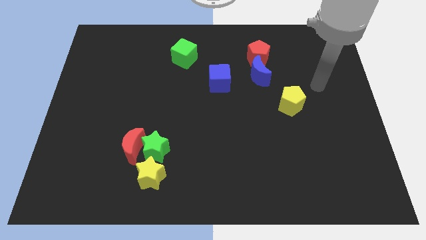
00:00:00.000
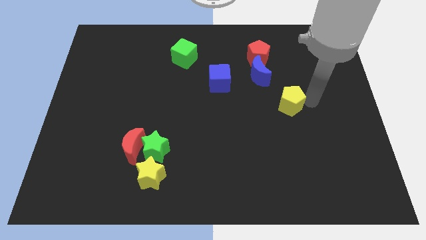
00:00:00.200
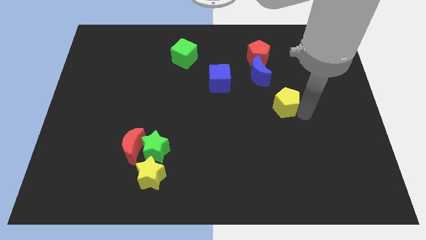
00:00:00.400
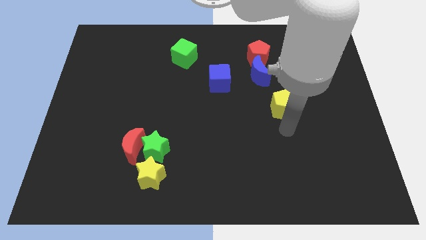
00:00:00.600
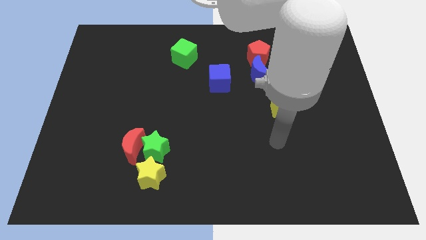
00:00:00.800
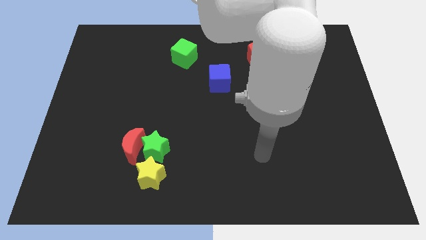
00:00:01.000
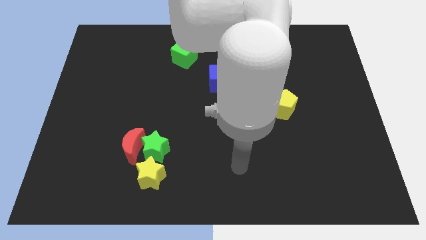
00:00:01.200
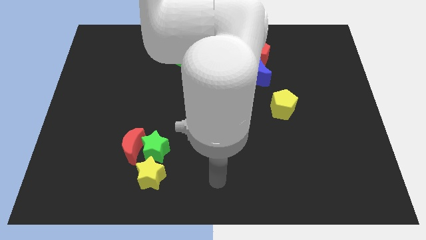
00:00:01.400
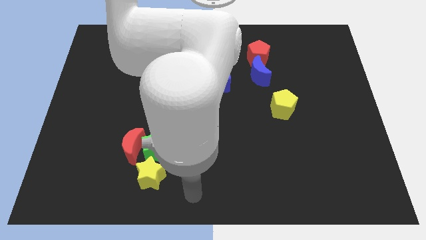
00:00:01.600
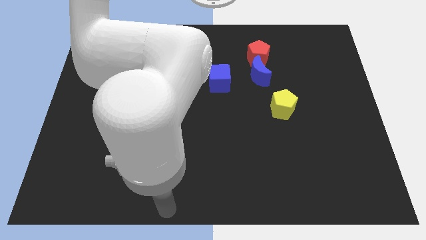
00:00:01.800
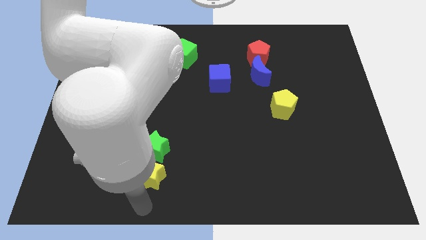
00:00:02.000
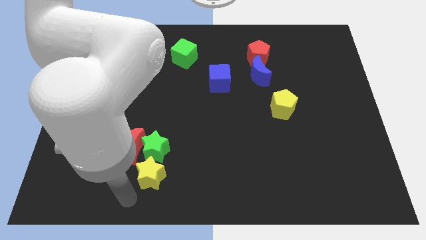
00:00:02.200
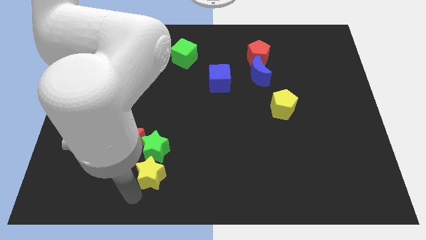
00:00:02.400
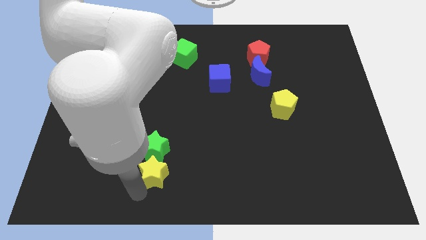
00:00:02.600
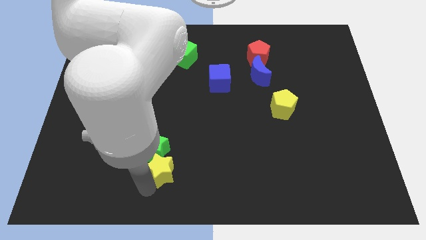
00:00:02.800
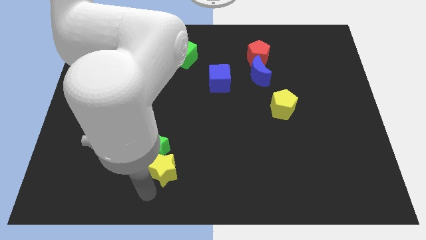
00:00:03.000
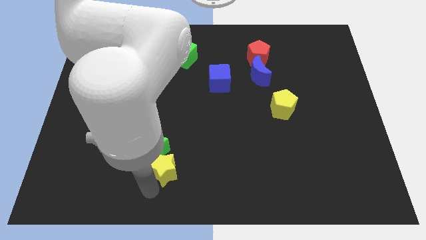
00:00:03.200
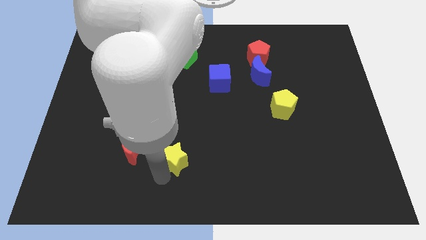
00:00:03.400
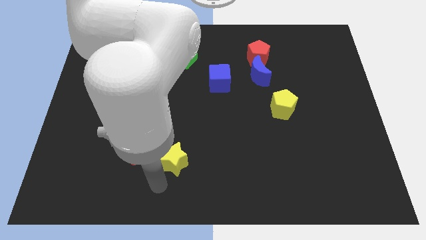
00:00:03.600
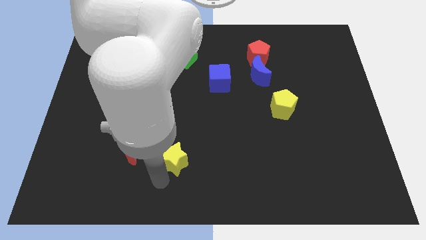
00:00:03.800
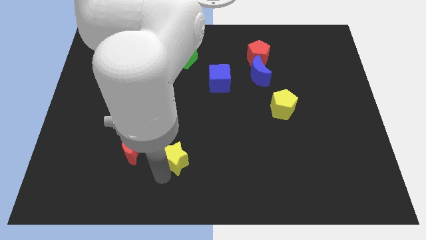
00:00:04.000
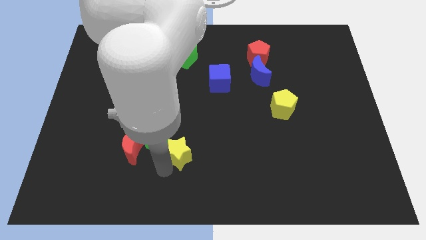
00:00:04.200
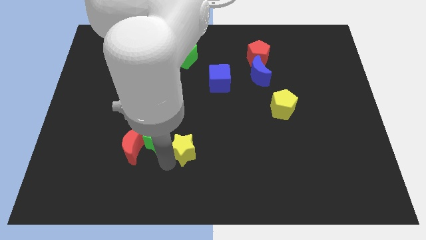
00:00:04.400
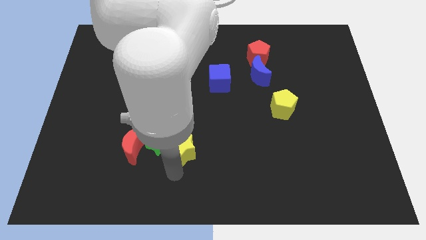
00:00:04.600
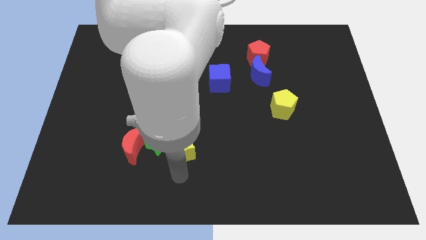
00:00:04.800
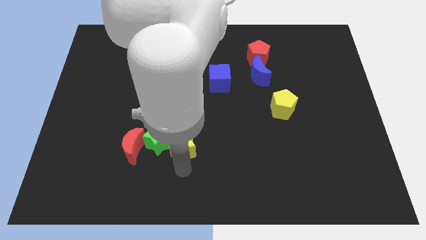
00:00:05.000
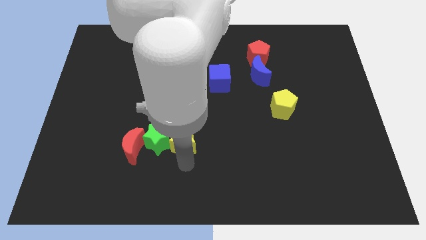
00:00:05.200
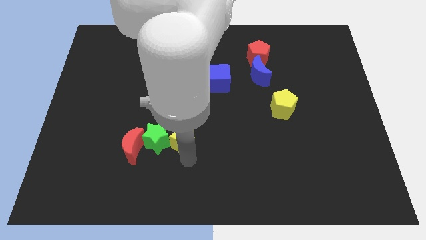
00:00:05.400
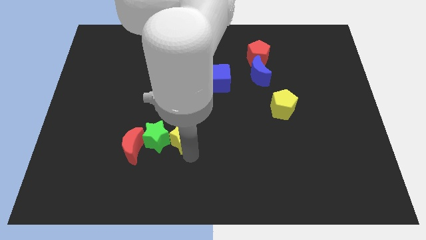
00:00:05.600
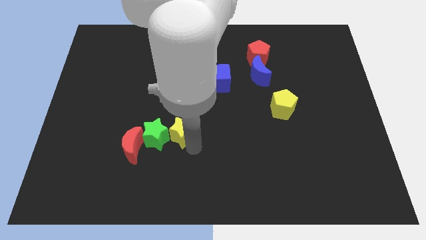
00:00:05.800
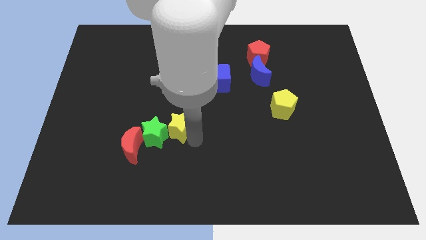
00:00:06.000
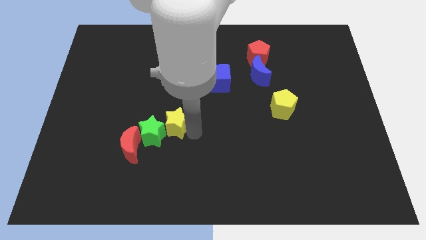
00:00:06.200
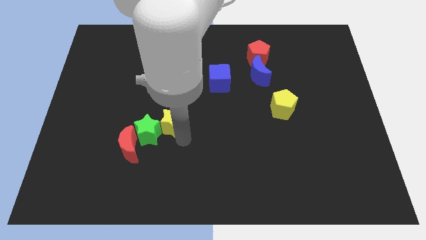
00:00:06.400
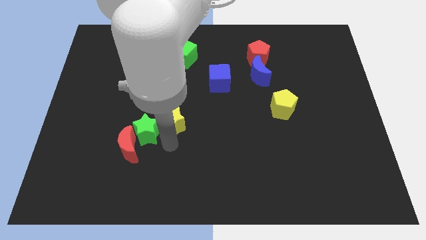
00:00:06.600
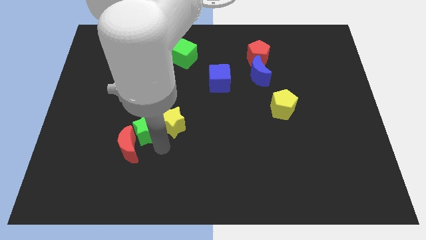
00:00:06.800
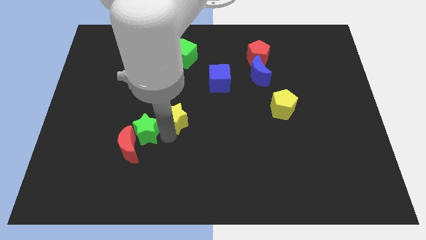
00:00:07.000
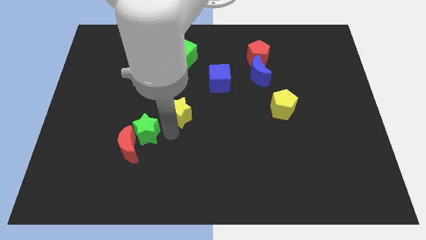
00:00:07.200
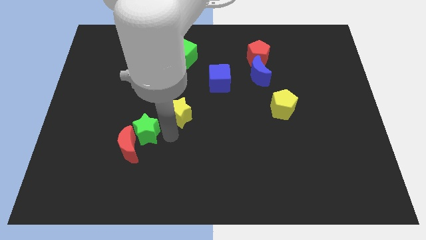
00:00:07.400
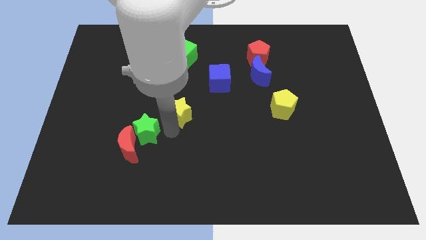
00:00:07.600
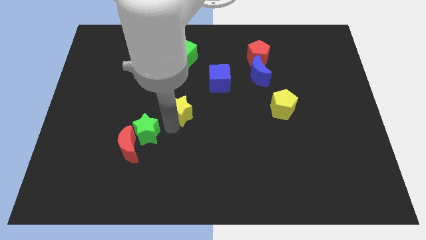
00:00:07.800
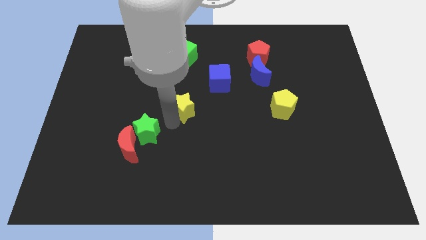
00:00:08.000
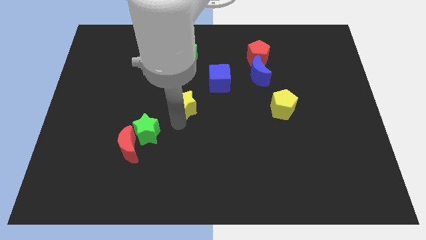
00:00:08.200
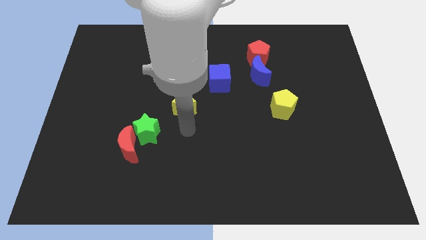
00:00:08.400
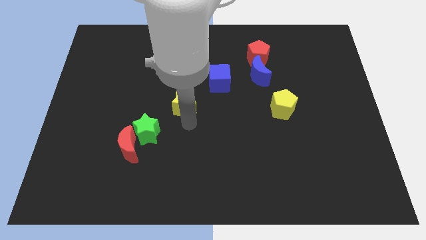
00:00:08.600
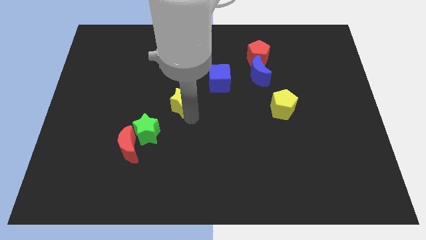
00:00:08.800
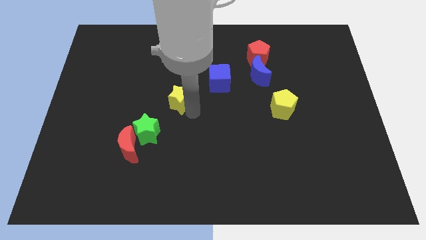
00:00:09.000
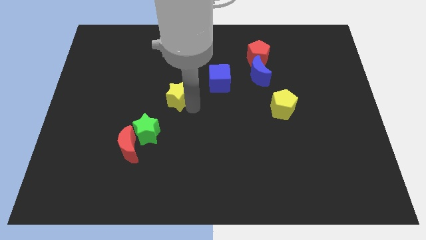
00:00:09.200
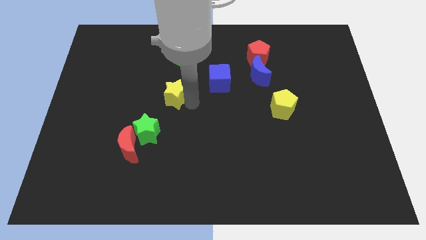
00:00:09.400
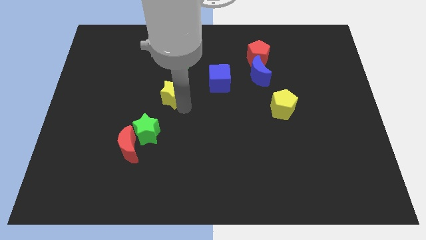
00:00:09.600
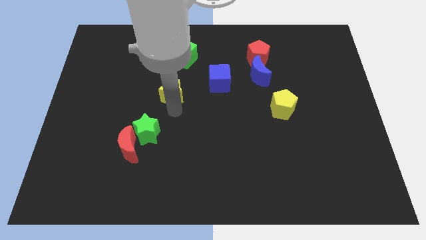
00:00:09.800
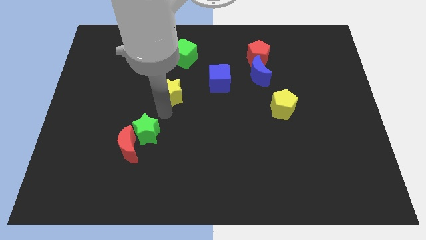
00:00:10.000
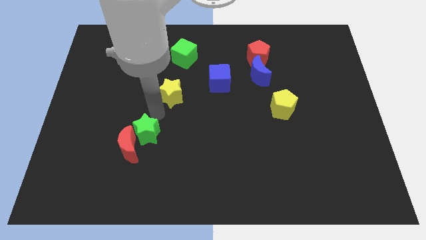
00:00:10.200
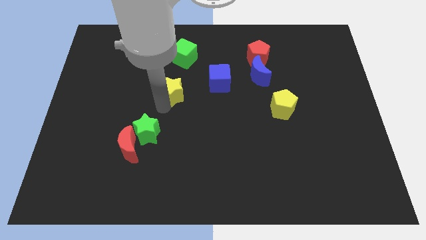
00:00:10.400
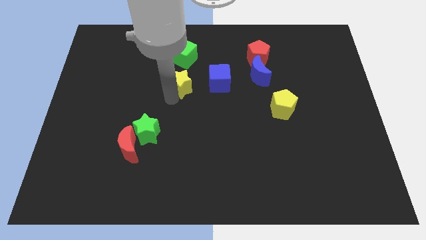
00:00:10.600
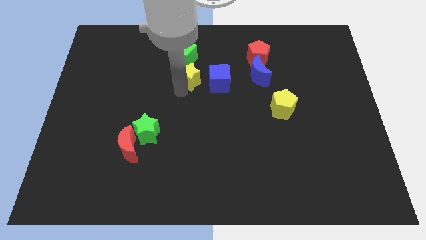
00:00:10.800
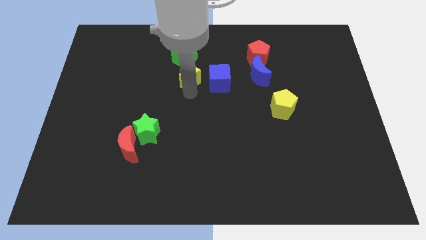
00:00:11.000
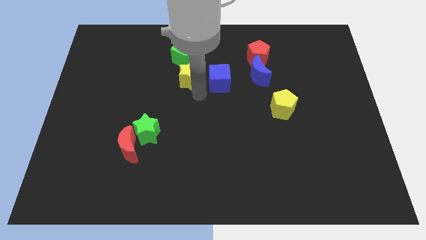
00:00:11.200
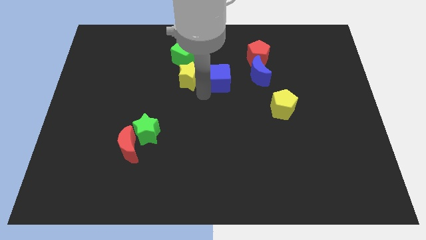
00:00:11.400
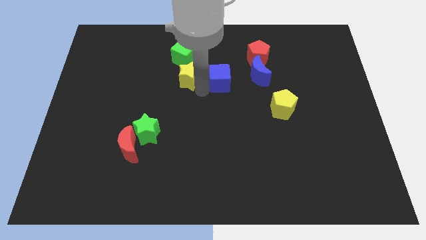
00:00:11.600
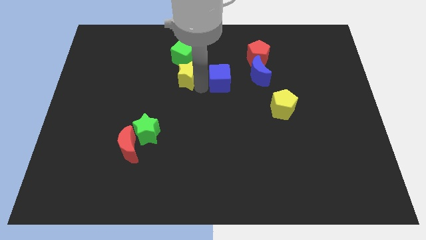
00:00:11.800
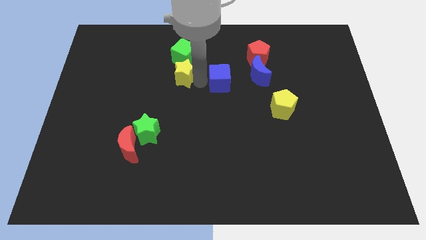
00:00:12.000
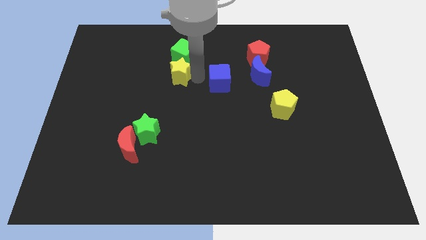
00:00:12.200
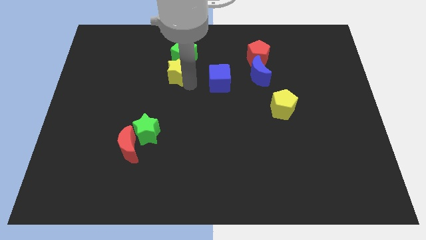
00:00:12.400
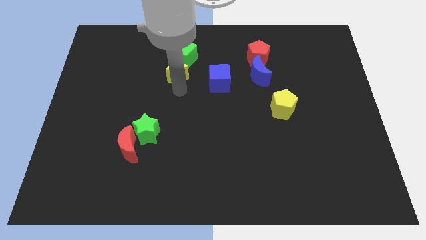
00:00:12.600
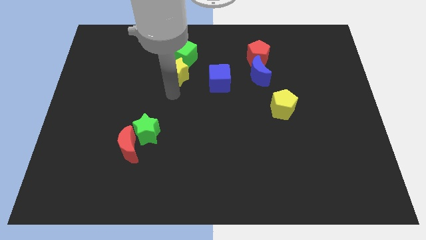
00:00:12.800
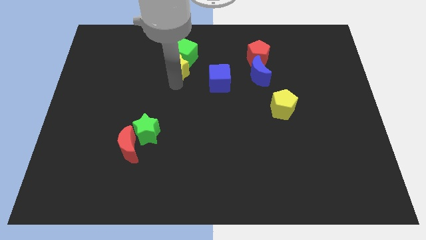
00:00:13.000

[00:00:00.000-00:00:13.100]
slide the yellow star next to the green cube
